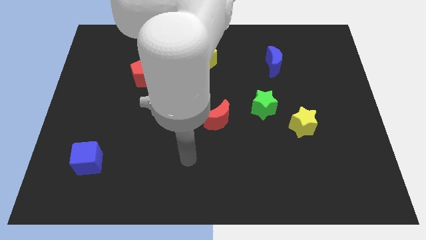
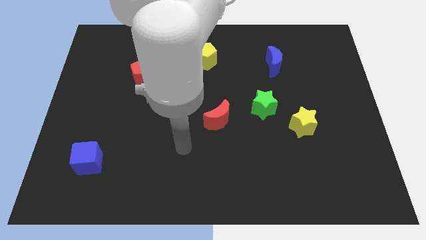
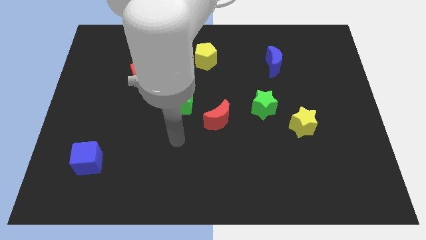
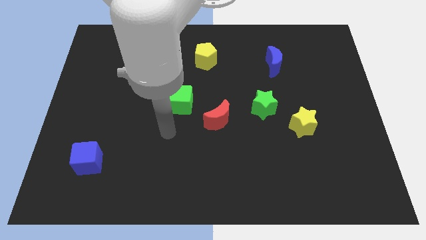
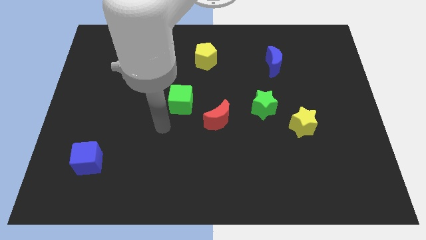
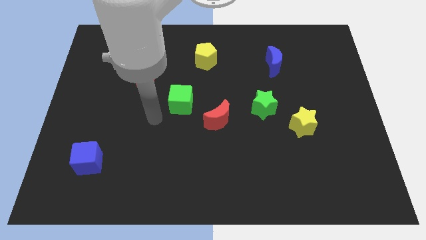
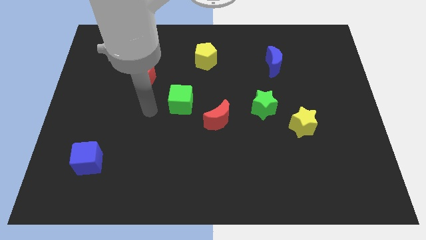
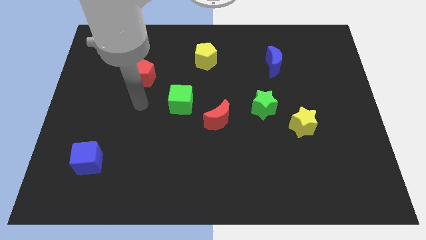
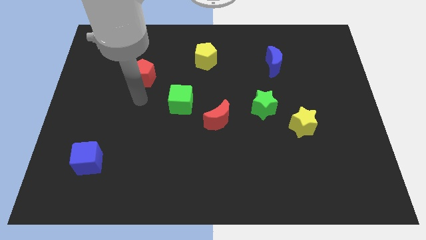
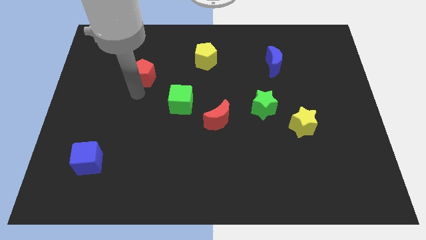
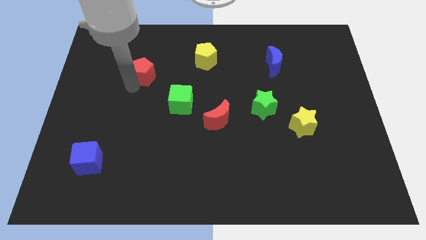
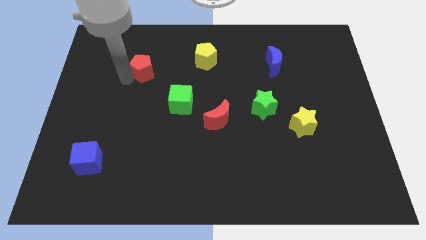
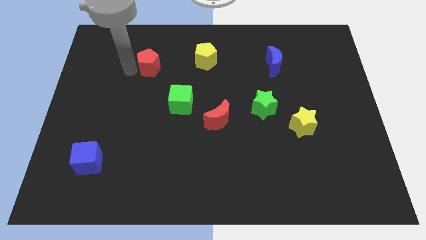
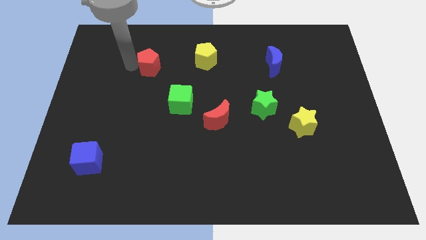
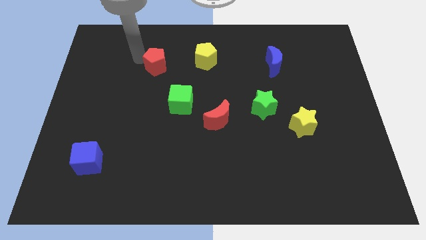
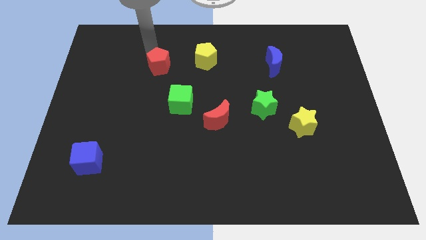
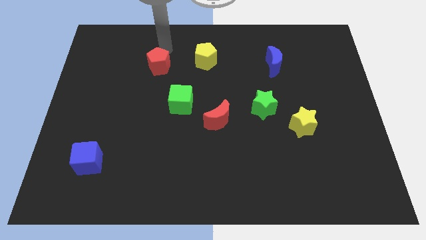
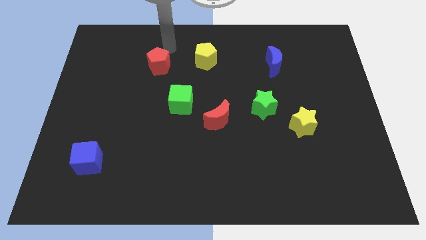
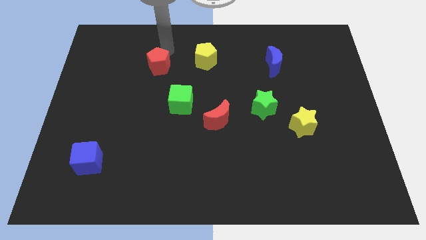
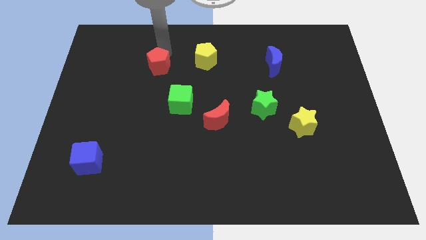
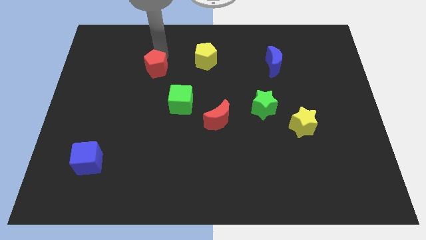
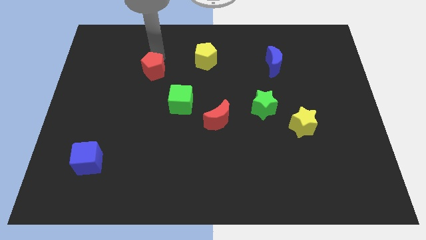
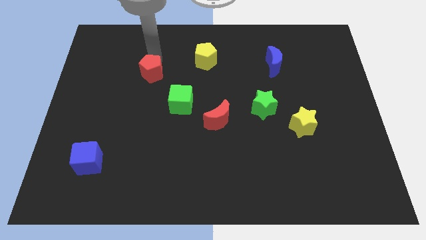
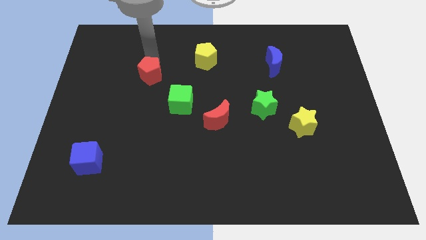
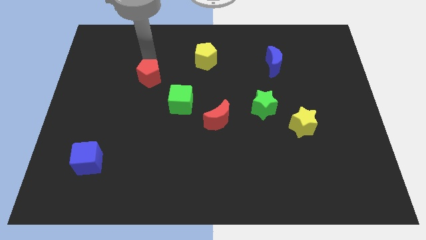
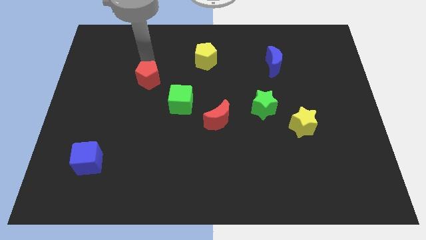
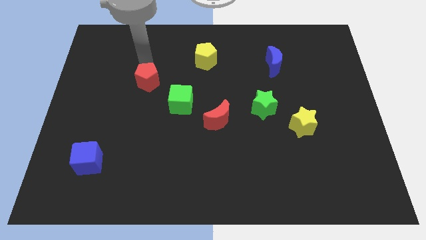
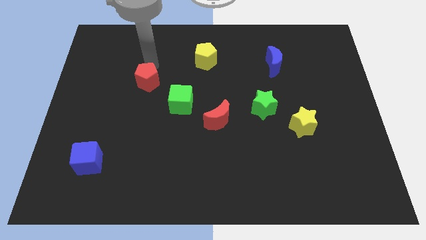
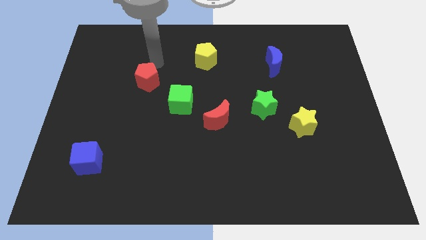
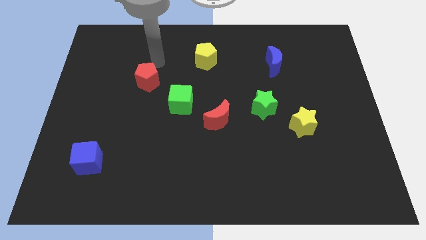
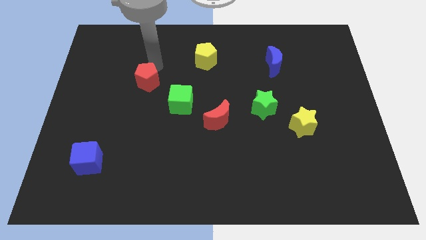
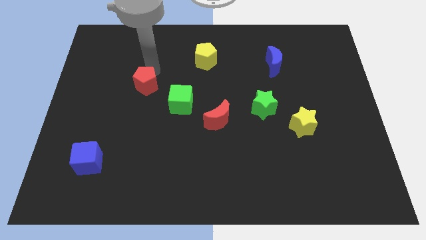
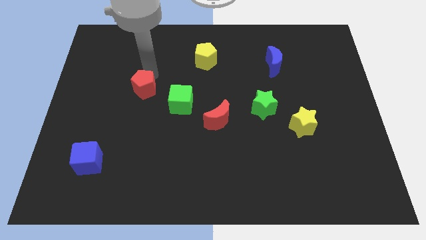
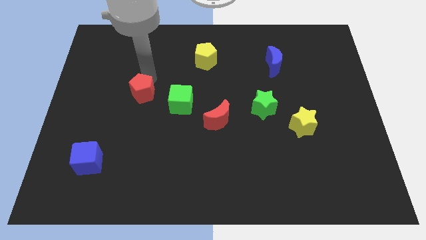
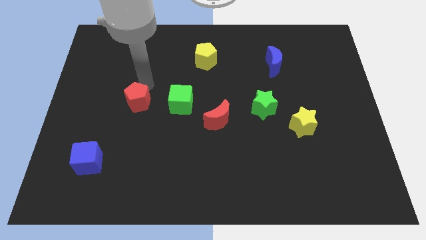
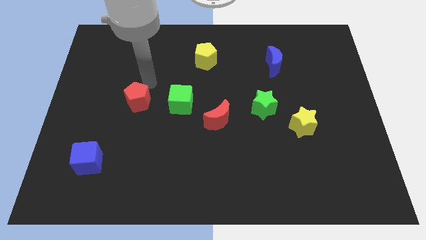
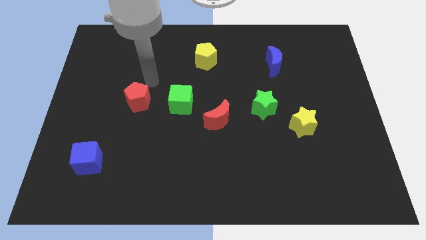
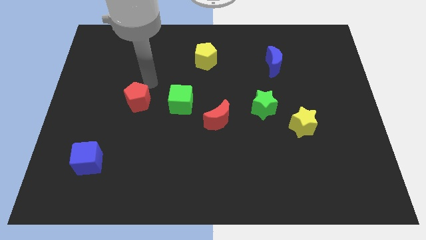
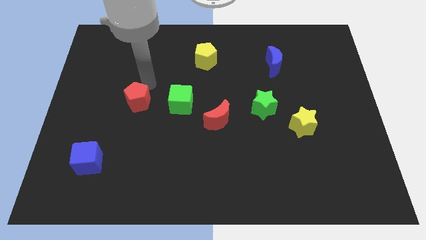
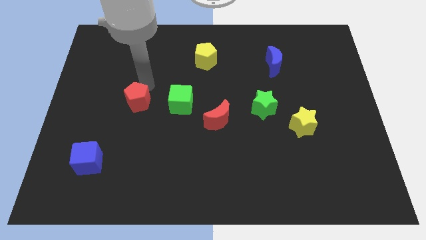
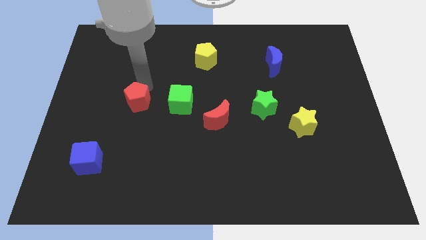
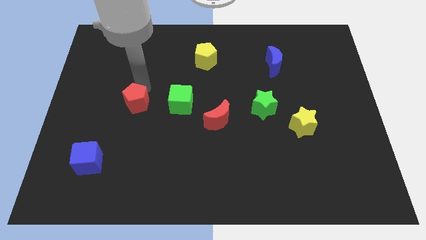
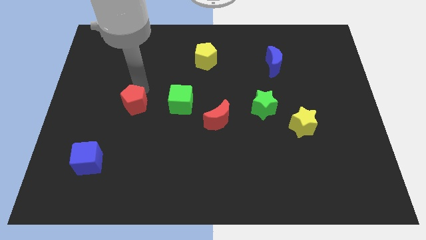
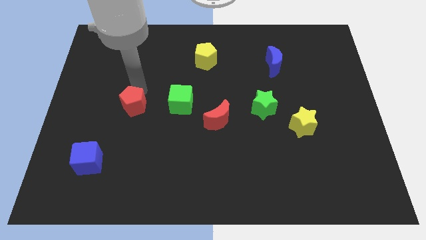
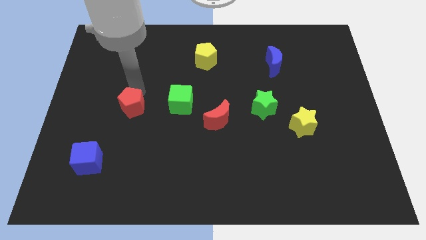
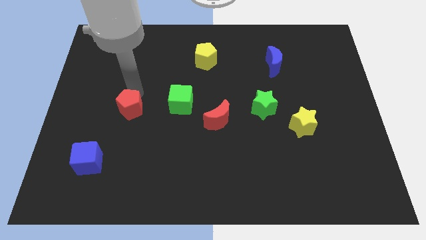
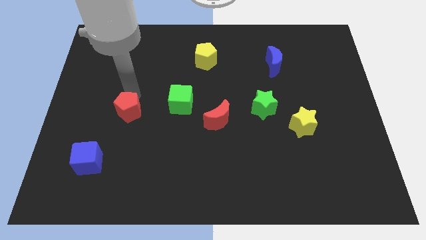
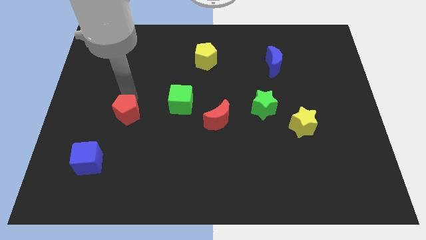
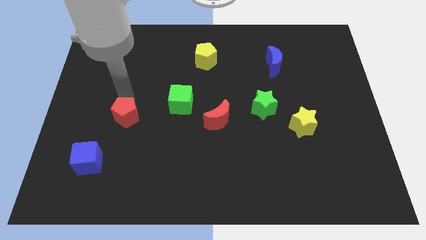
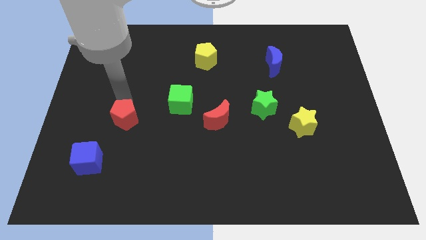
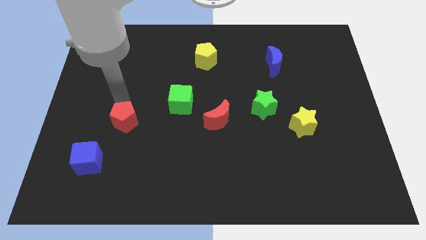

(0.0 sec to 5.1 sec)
slide the red pentagon to the top right of the blue cube

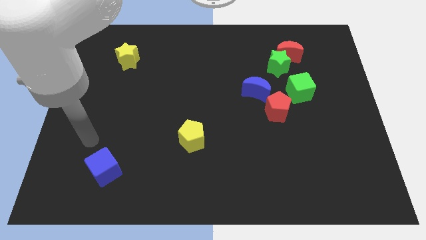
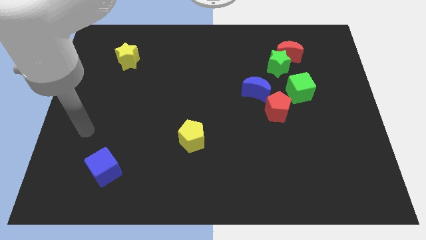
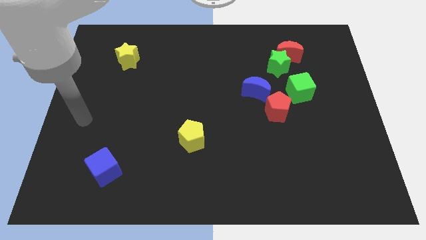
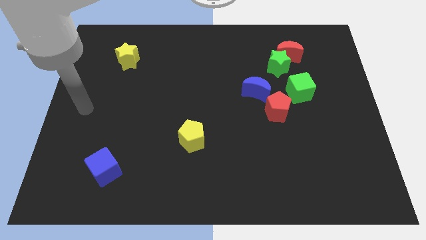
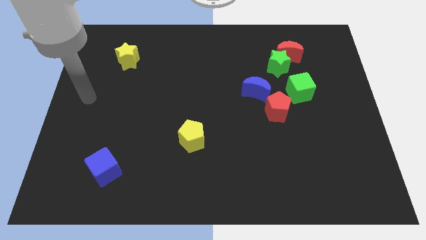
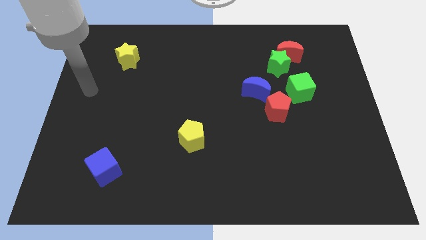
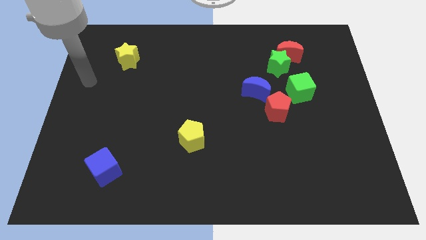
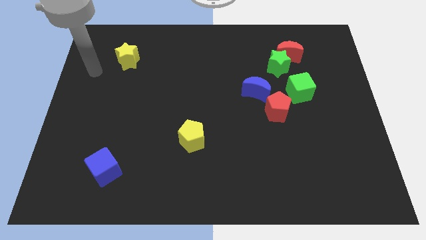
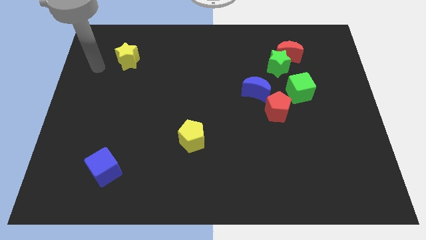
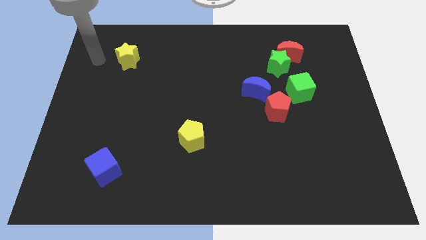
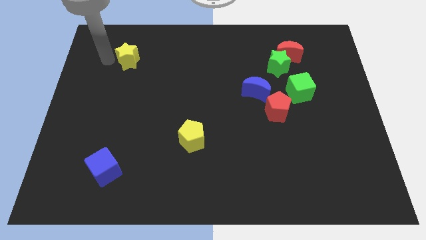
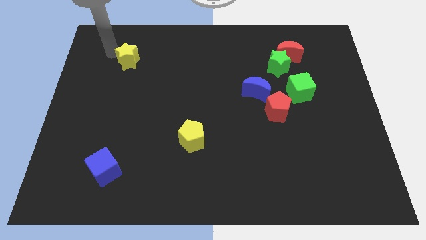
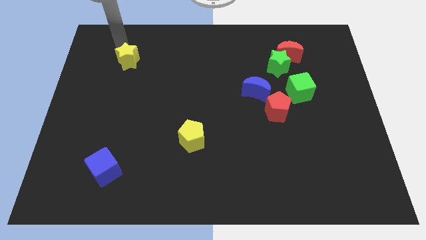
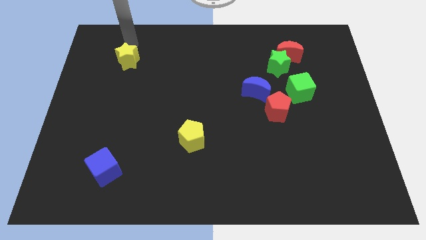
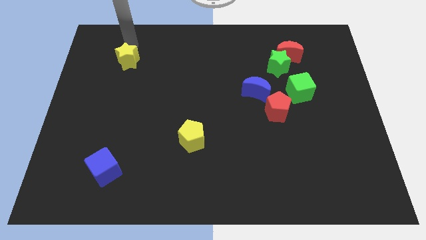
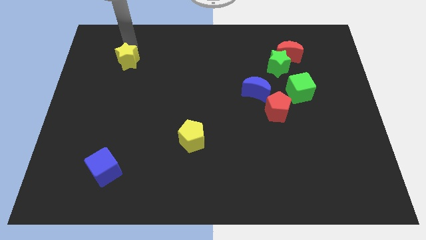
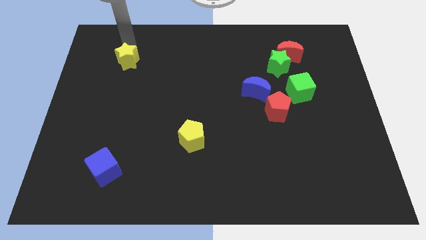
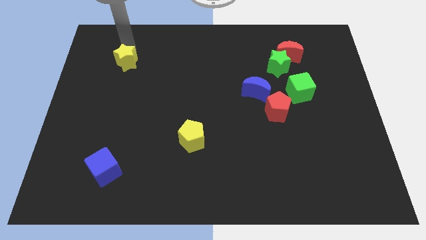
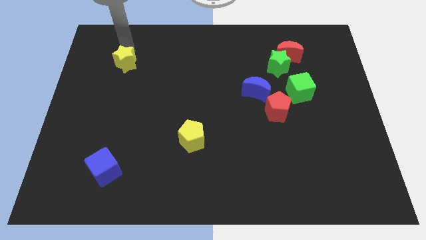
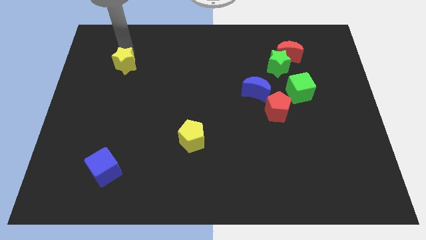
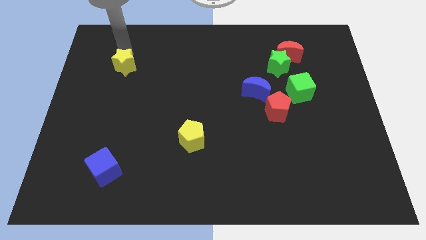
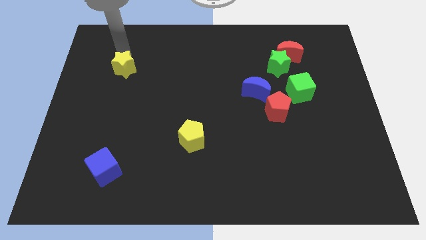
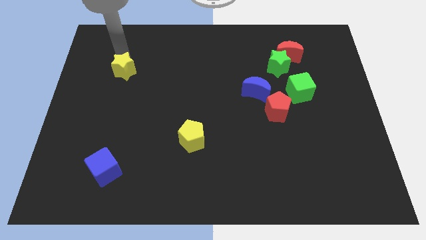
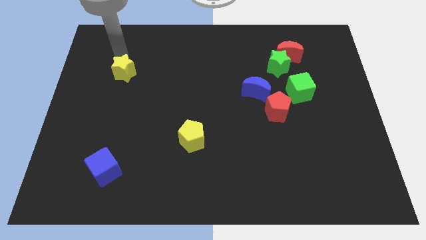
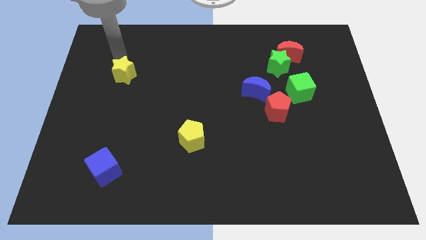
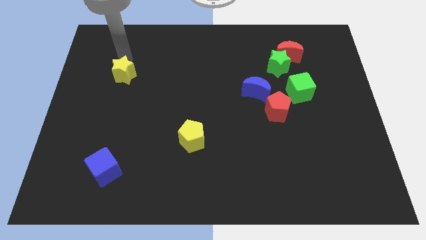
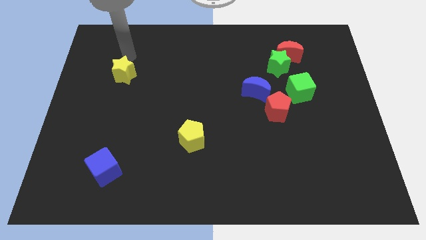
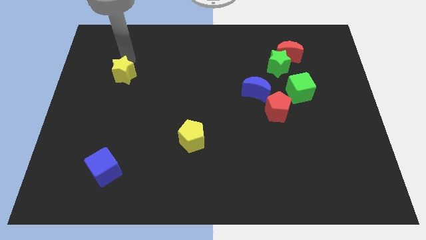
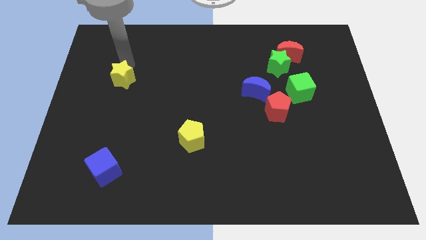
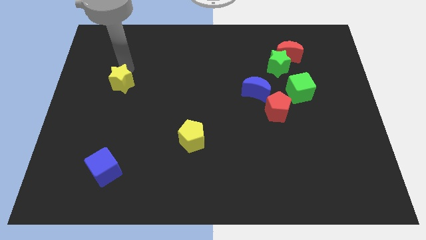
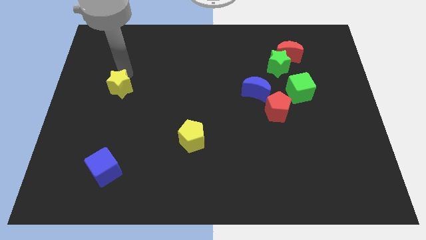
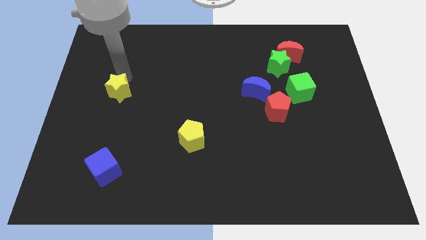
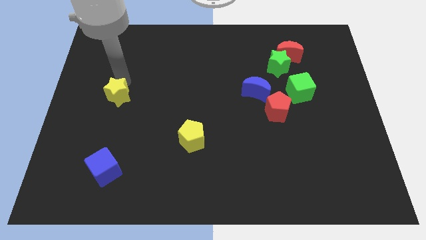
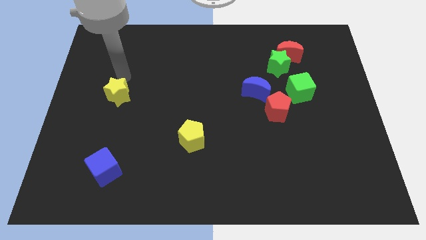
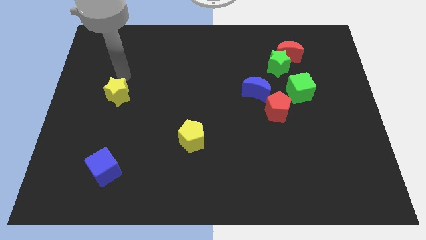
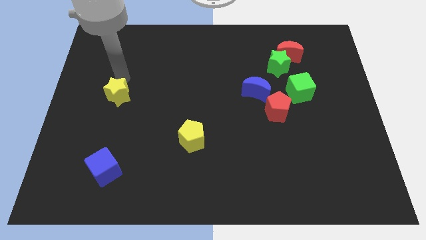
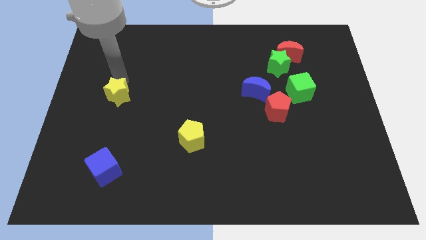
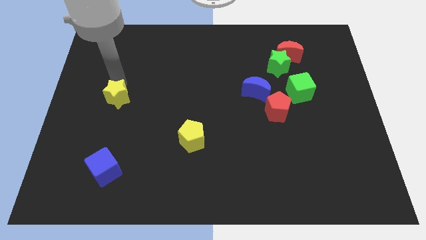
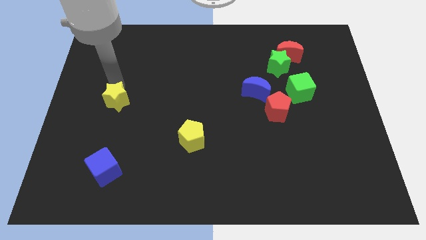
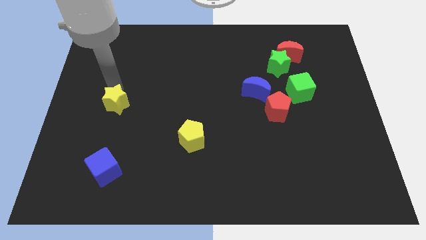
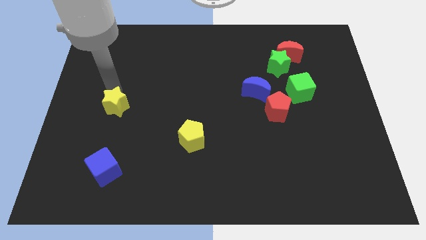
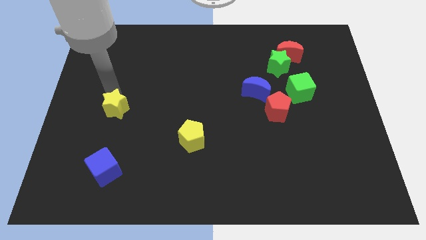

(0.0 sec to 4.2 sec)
put the yellow star to the top of the blue cube
